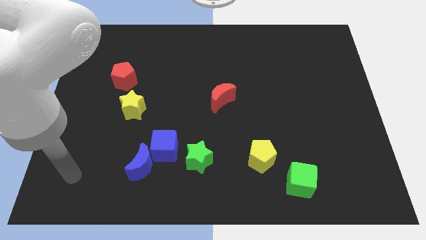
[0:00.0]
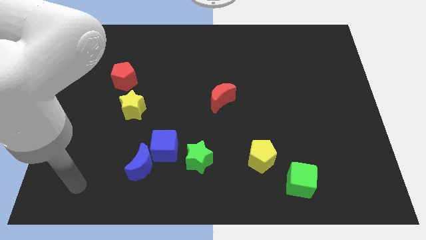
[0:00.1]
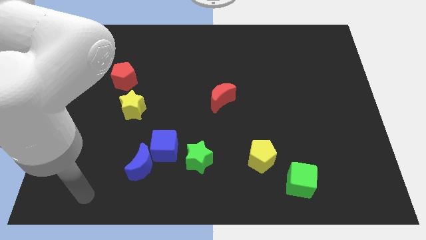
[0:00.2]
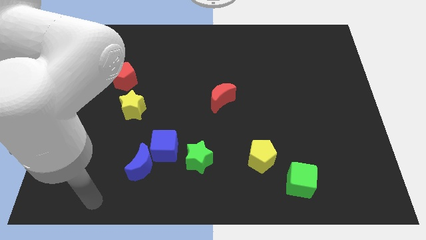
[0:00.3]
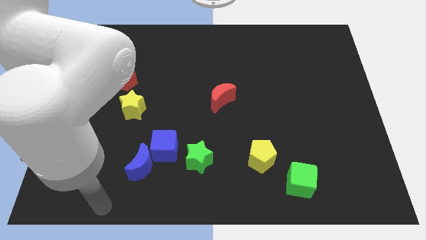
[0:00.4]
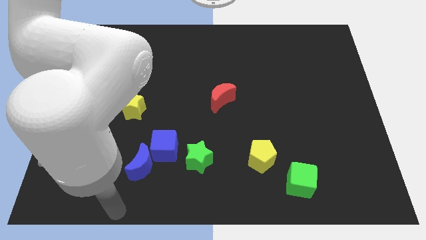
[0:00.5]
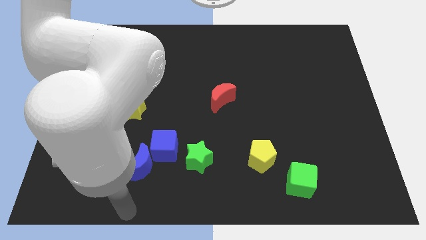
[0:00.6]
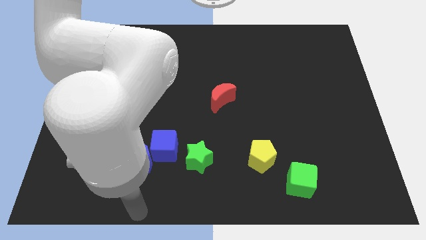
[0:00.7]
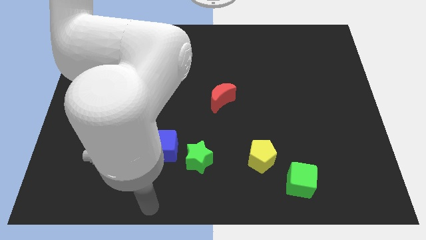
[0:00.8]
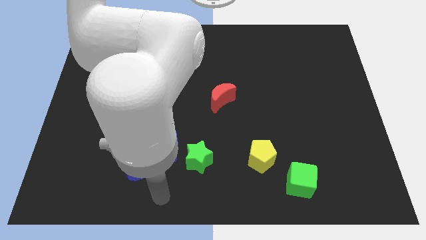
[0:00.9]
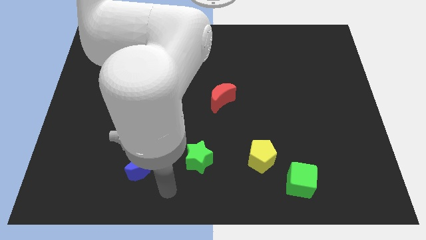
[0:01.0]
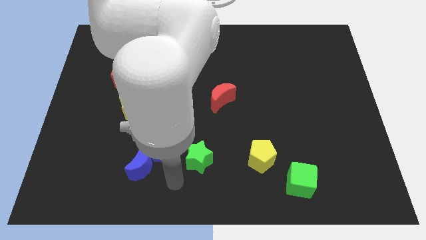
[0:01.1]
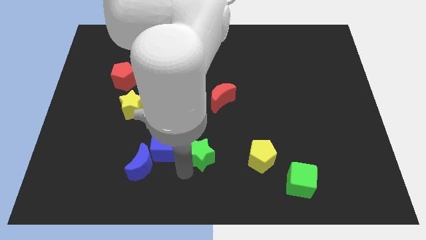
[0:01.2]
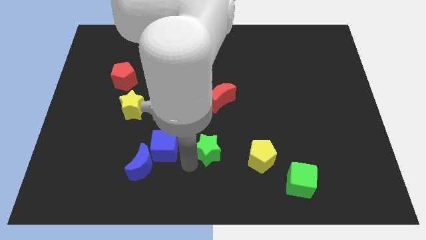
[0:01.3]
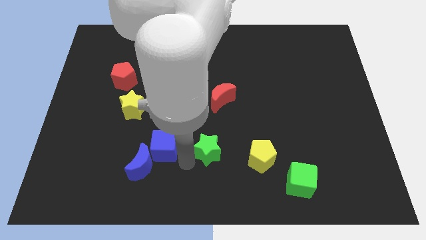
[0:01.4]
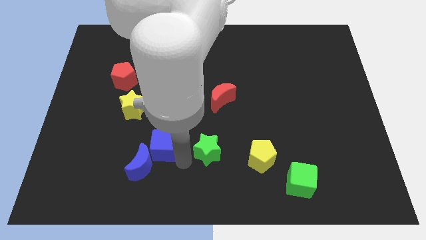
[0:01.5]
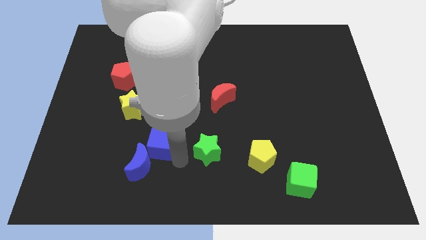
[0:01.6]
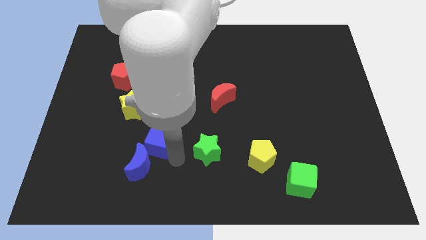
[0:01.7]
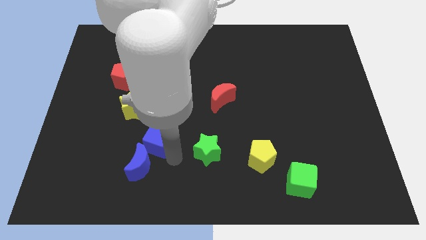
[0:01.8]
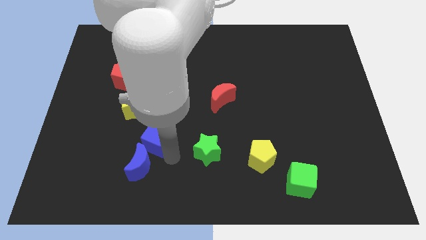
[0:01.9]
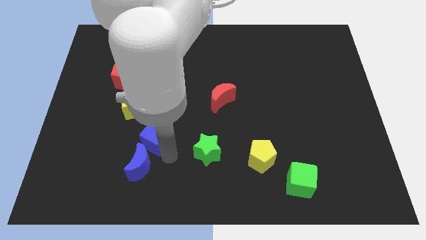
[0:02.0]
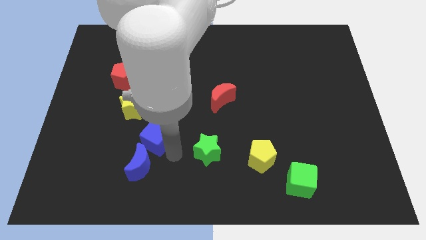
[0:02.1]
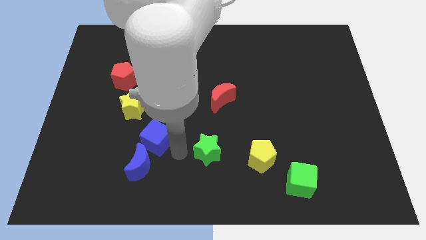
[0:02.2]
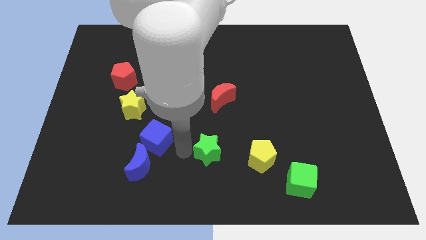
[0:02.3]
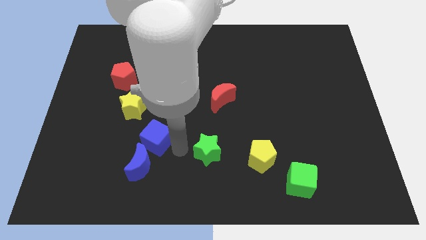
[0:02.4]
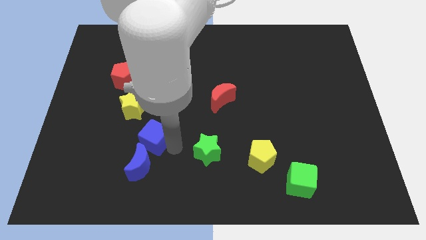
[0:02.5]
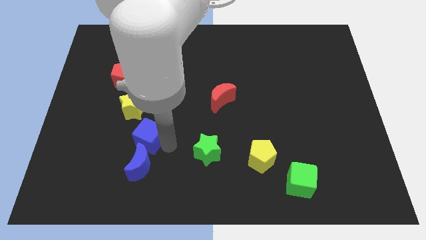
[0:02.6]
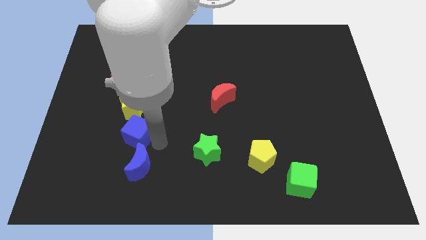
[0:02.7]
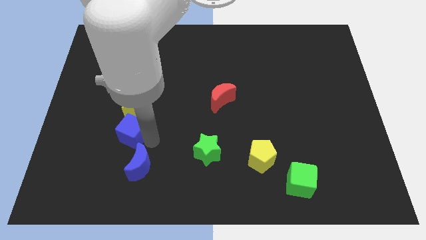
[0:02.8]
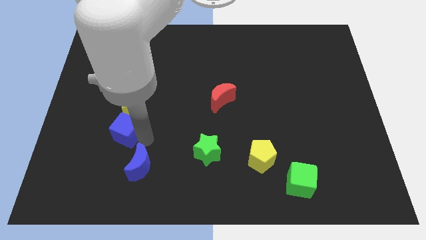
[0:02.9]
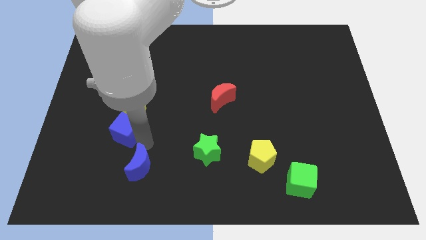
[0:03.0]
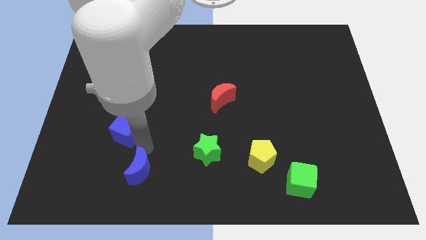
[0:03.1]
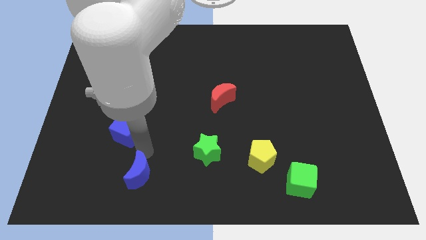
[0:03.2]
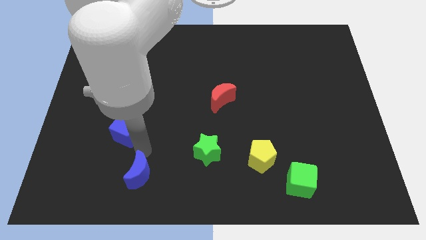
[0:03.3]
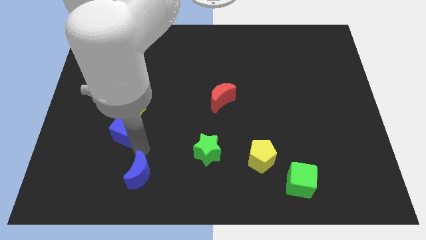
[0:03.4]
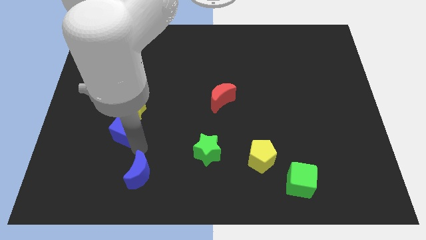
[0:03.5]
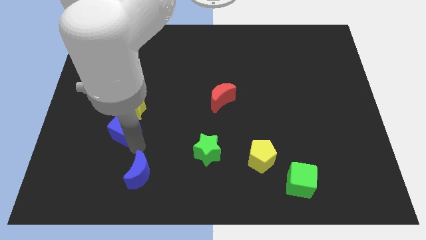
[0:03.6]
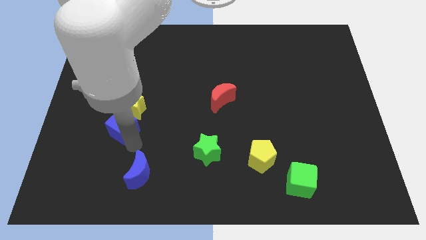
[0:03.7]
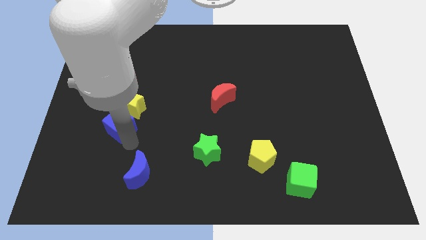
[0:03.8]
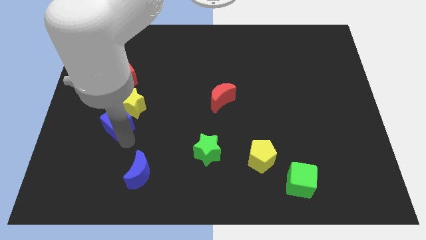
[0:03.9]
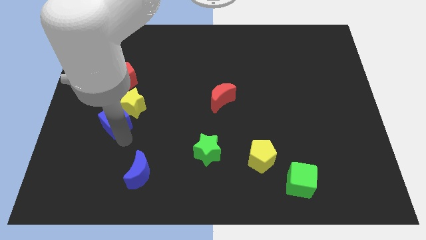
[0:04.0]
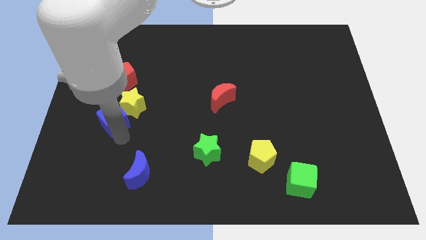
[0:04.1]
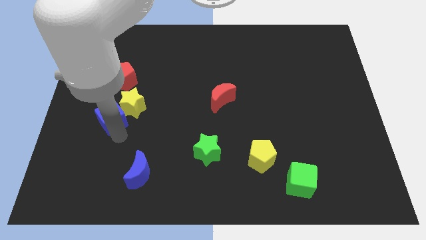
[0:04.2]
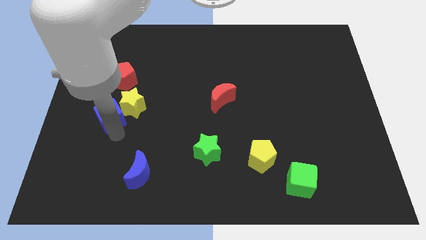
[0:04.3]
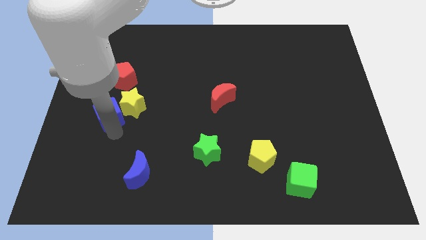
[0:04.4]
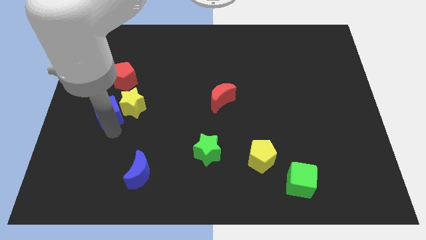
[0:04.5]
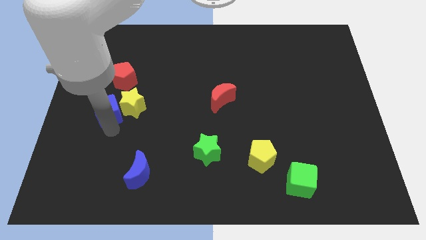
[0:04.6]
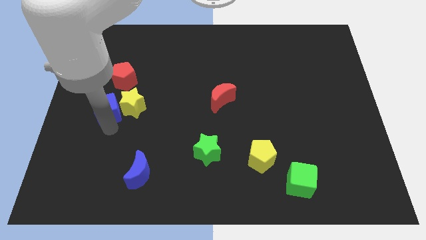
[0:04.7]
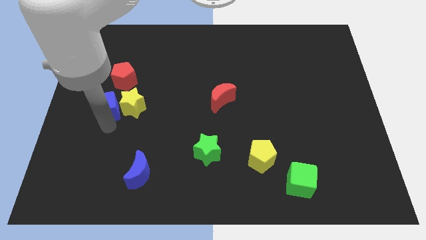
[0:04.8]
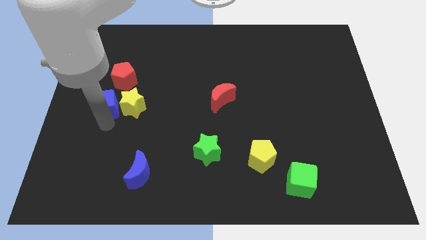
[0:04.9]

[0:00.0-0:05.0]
push the blue cube to the top left side of the yellow star

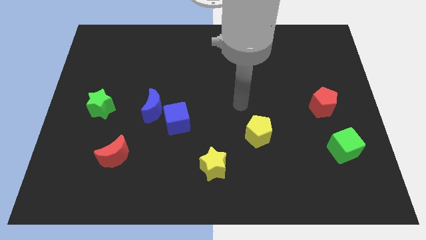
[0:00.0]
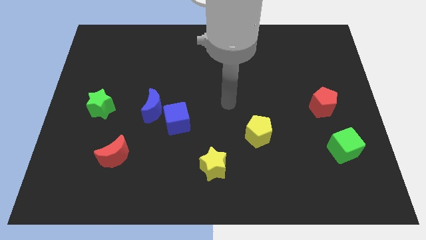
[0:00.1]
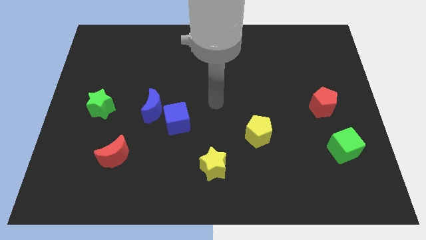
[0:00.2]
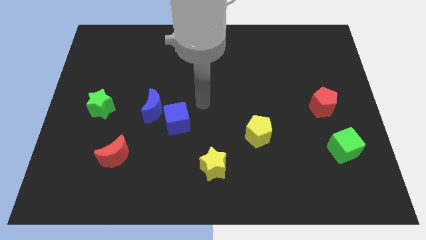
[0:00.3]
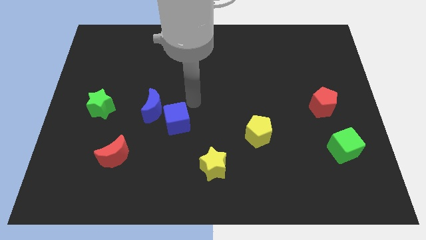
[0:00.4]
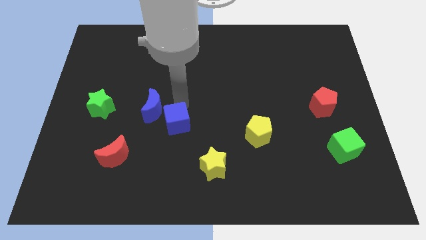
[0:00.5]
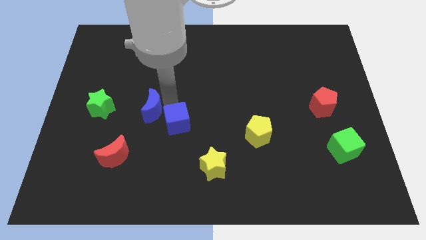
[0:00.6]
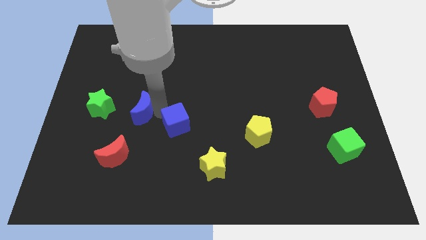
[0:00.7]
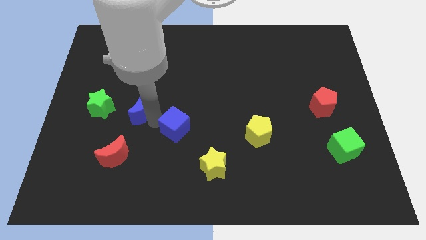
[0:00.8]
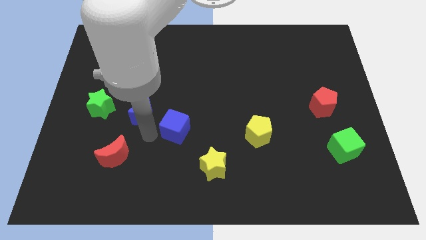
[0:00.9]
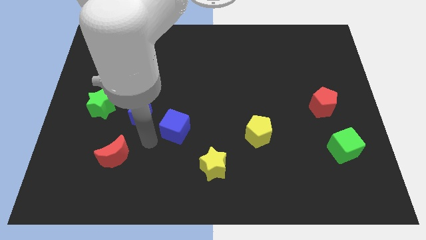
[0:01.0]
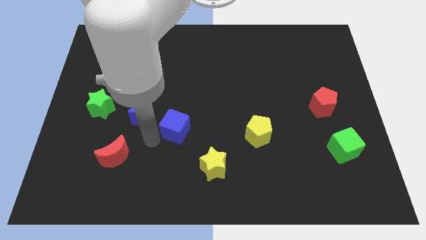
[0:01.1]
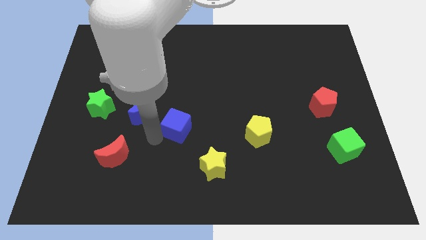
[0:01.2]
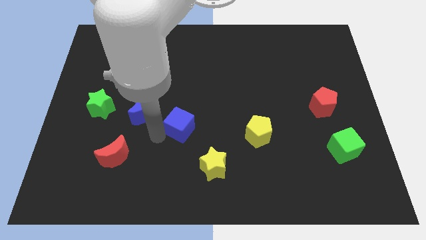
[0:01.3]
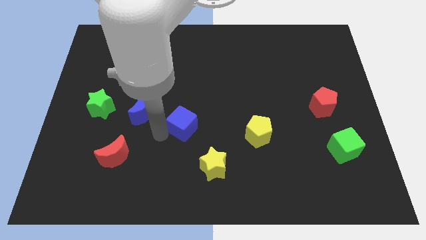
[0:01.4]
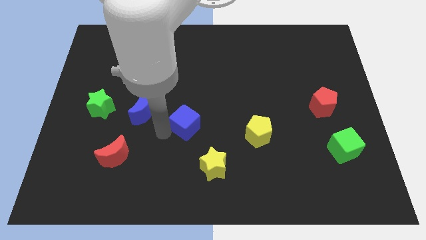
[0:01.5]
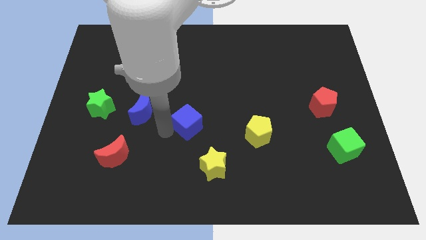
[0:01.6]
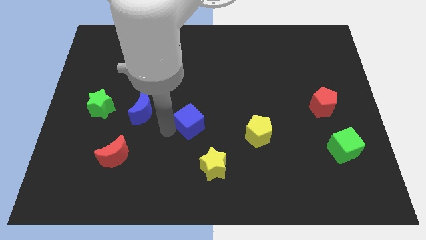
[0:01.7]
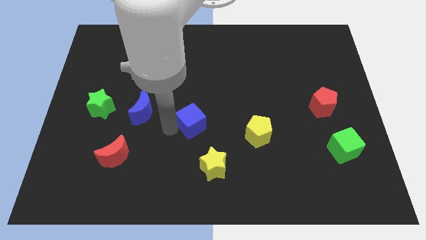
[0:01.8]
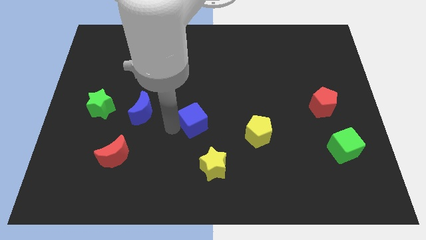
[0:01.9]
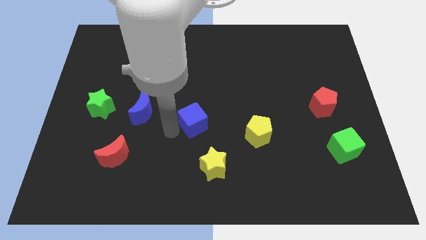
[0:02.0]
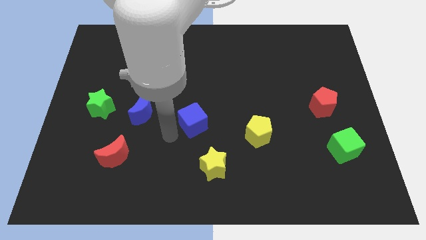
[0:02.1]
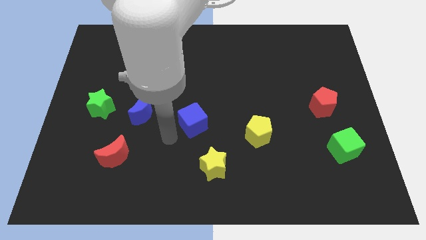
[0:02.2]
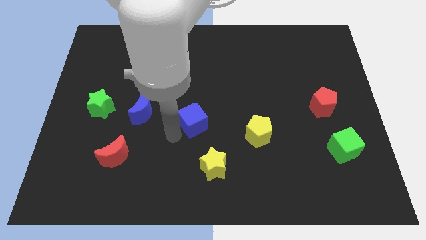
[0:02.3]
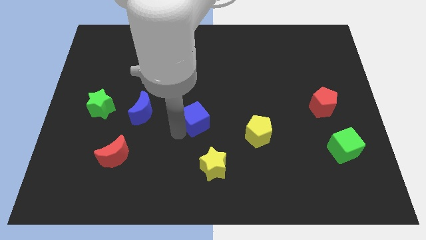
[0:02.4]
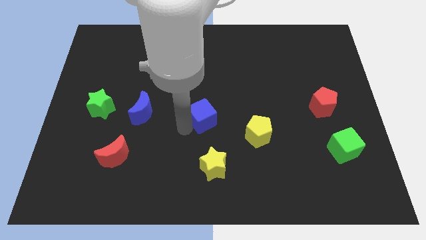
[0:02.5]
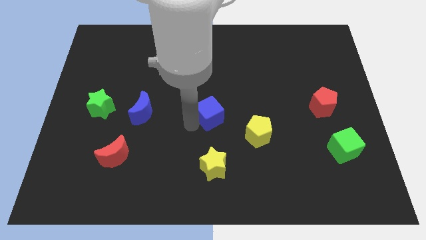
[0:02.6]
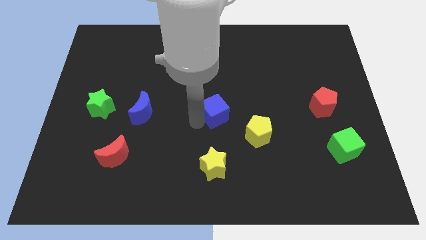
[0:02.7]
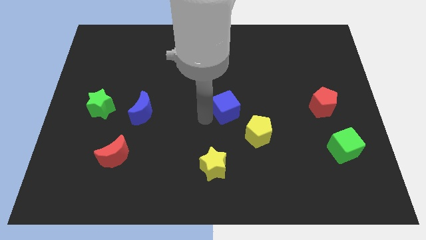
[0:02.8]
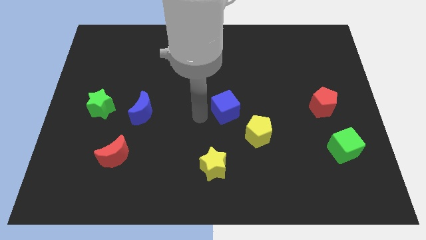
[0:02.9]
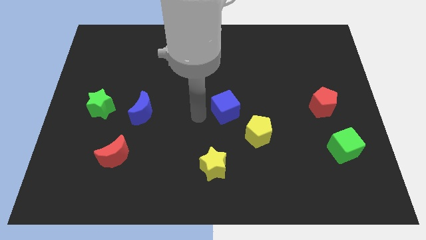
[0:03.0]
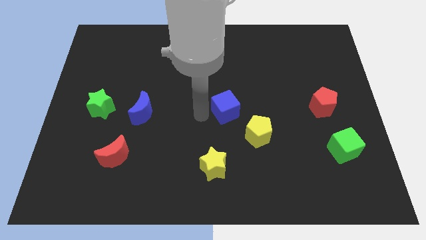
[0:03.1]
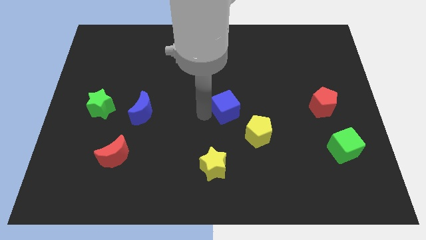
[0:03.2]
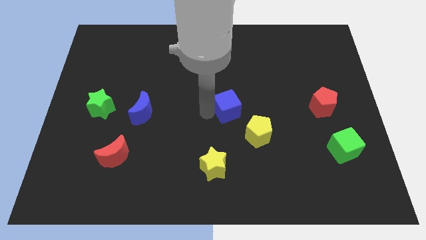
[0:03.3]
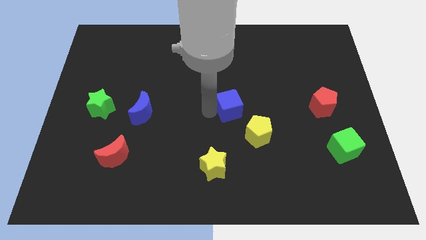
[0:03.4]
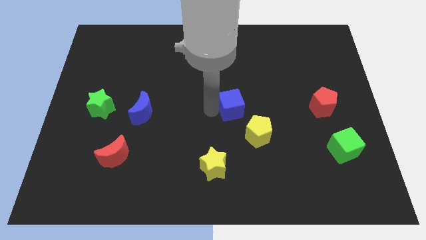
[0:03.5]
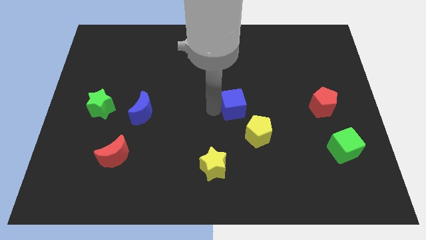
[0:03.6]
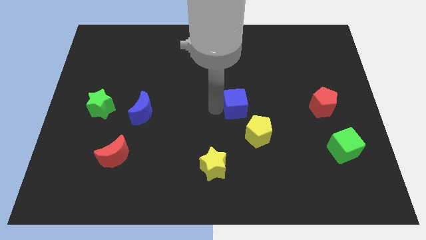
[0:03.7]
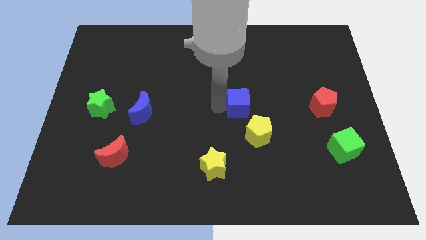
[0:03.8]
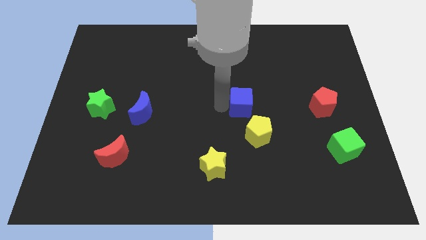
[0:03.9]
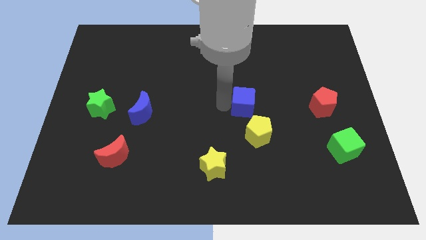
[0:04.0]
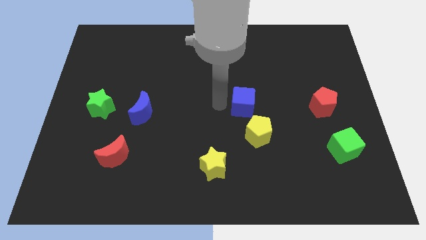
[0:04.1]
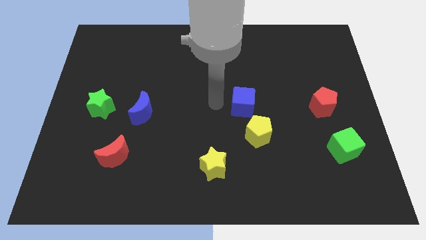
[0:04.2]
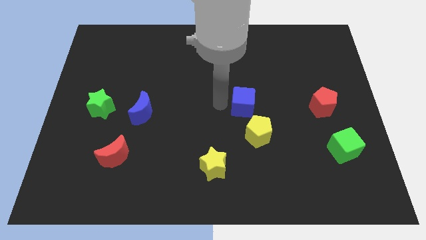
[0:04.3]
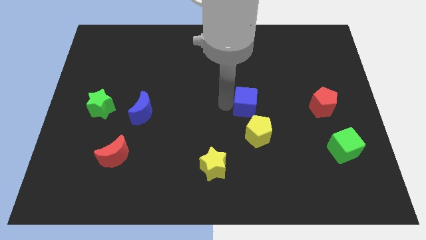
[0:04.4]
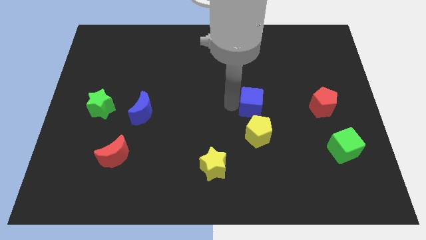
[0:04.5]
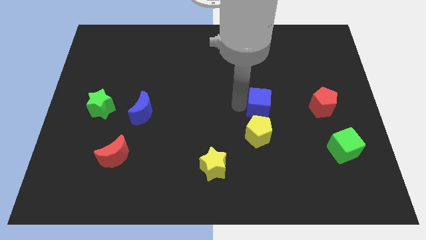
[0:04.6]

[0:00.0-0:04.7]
move the blue cube left of the red pentagon
